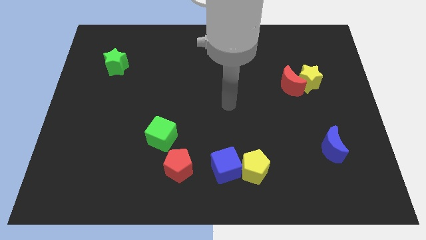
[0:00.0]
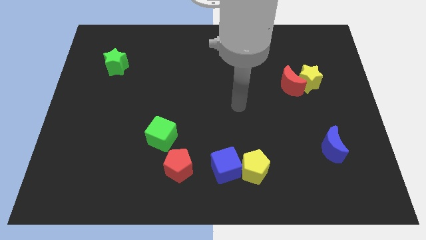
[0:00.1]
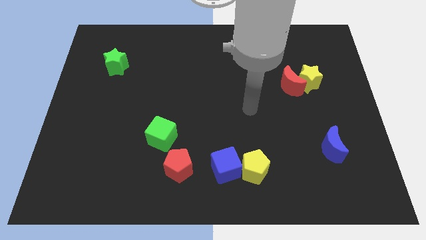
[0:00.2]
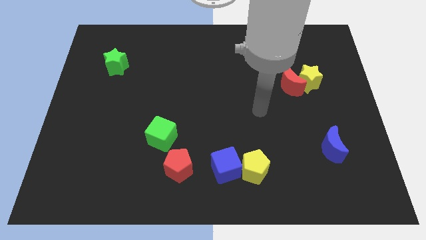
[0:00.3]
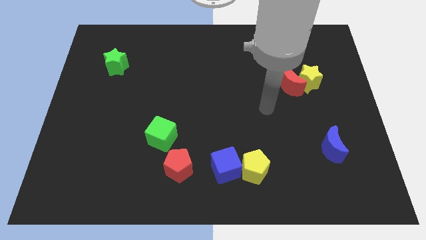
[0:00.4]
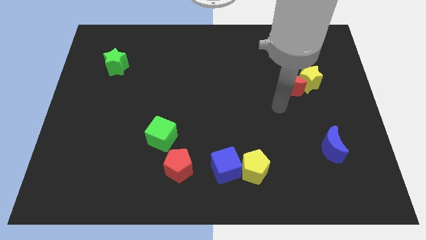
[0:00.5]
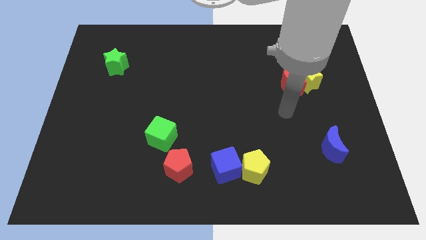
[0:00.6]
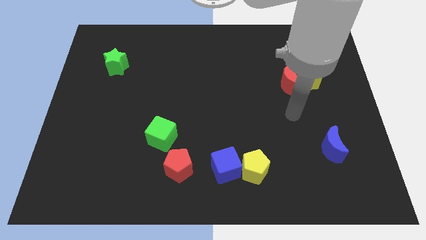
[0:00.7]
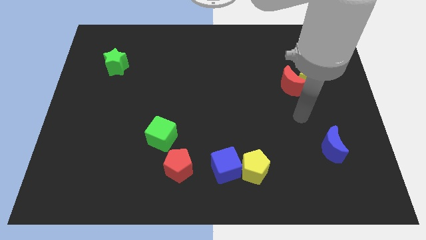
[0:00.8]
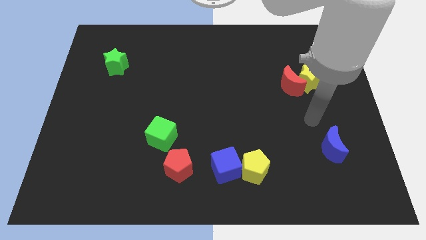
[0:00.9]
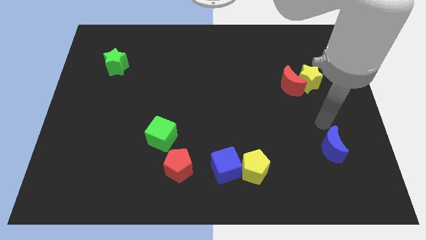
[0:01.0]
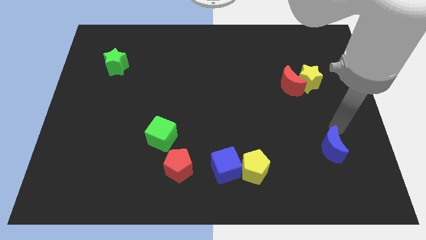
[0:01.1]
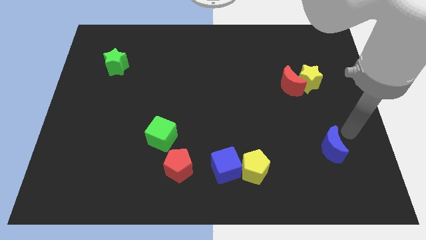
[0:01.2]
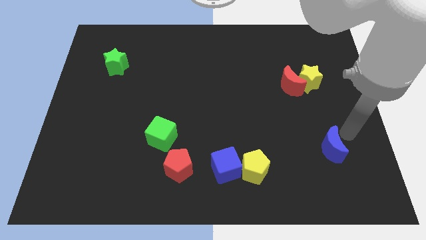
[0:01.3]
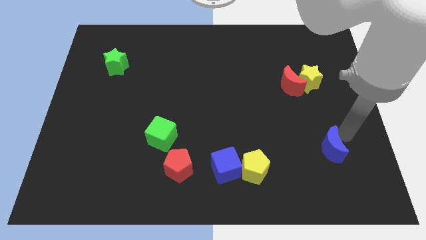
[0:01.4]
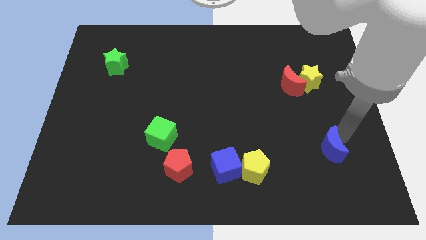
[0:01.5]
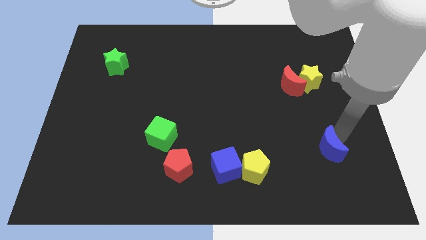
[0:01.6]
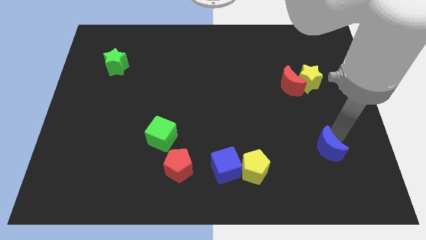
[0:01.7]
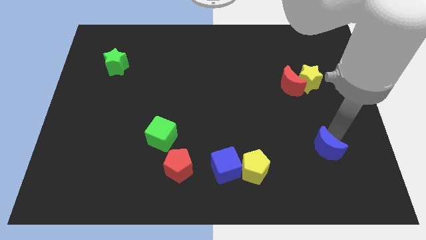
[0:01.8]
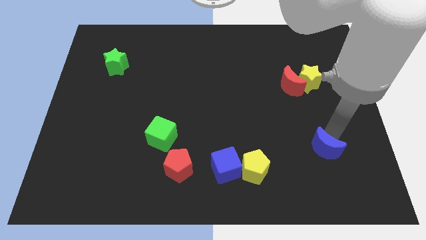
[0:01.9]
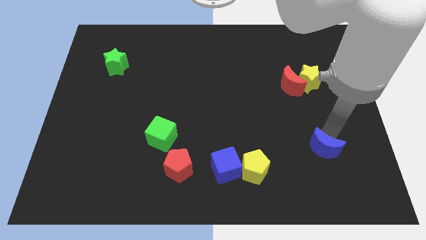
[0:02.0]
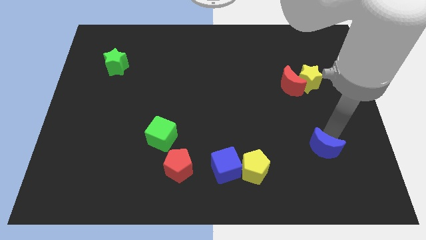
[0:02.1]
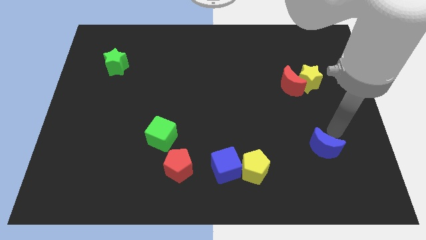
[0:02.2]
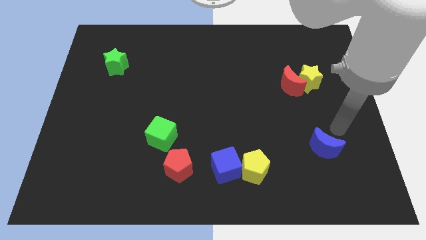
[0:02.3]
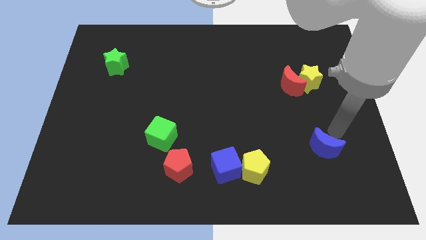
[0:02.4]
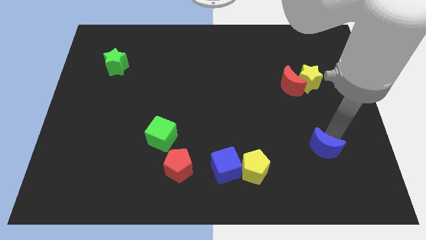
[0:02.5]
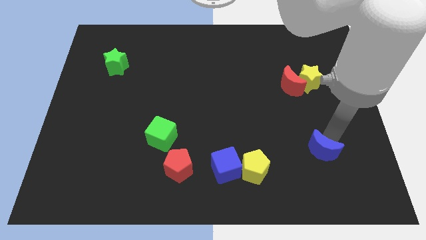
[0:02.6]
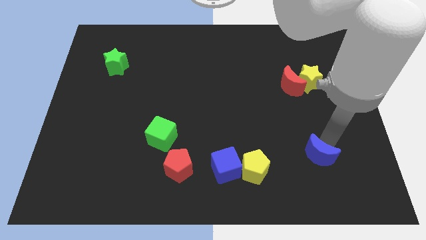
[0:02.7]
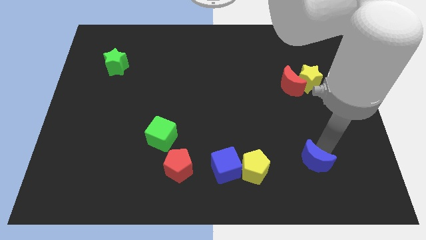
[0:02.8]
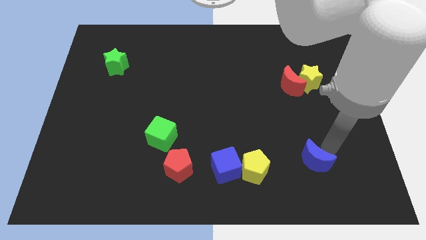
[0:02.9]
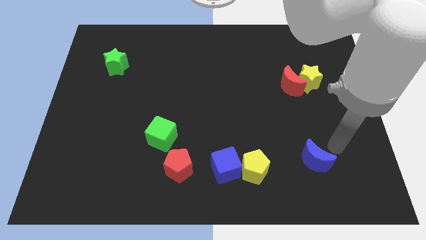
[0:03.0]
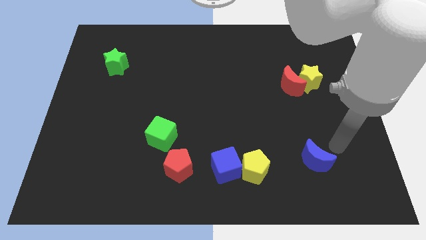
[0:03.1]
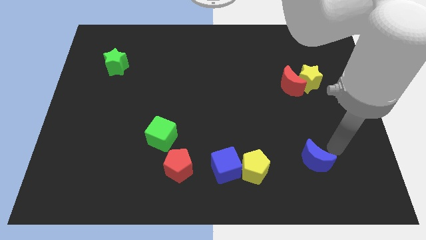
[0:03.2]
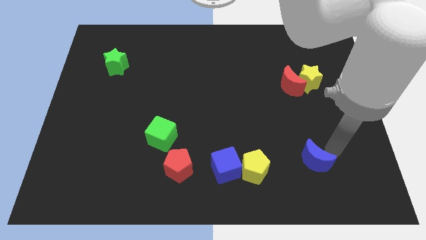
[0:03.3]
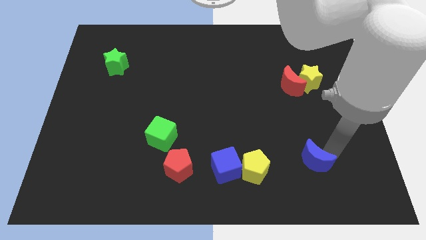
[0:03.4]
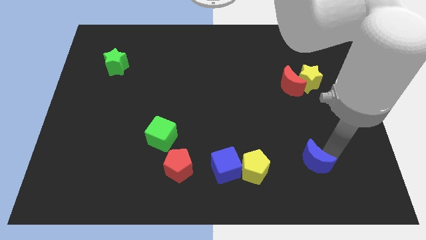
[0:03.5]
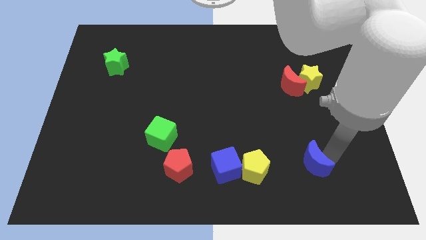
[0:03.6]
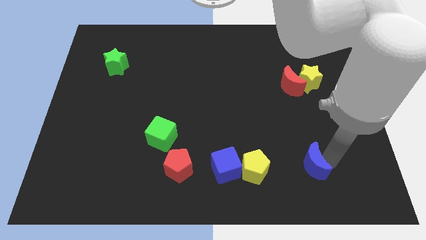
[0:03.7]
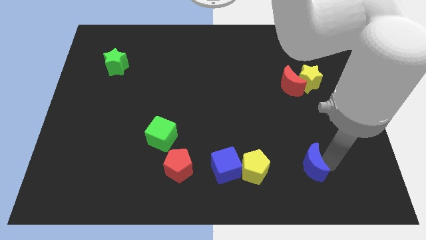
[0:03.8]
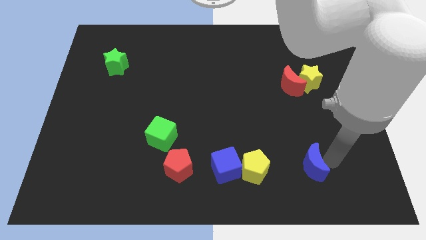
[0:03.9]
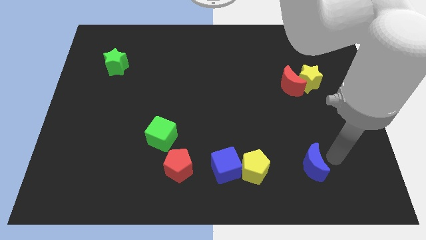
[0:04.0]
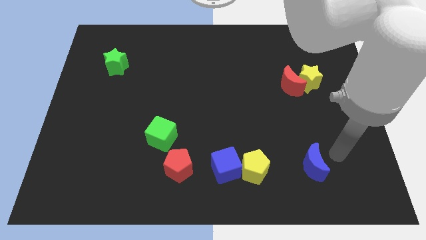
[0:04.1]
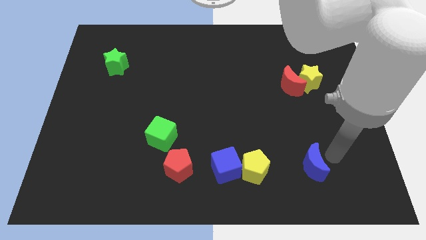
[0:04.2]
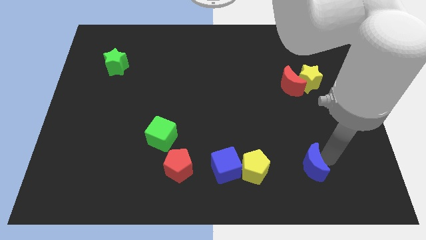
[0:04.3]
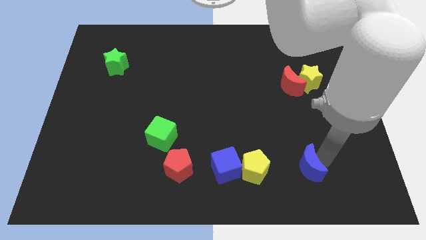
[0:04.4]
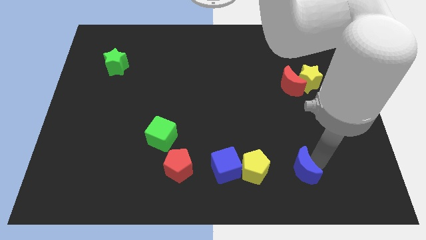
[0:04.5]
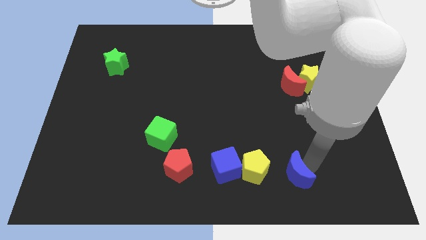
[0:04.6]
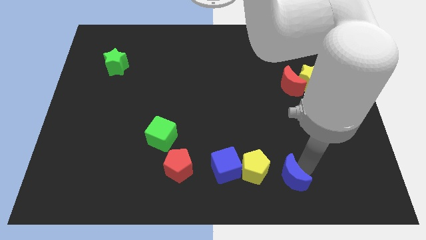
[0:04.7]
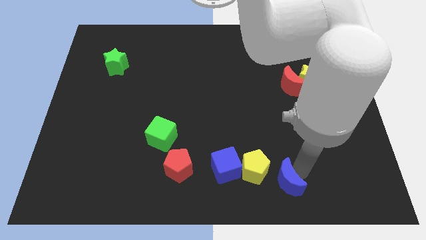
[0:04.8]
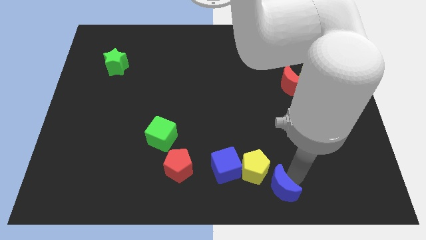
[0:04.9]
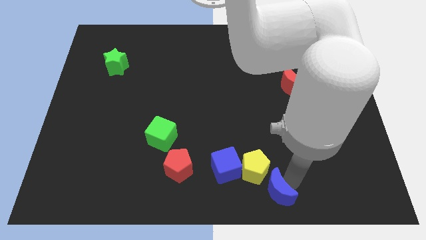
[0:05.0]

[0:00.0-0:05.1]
put the blue moon to the bottom

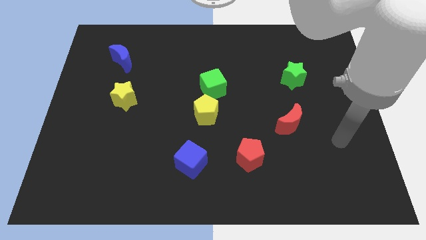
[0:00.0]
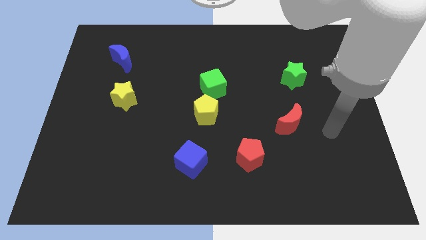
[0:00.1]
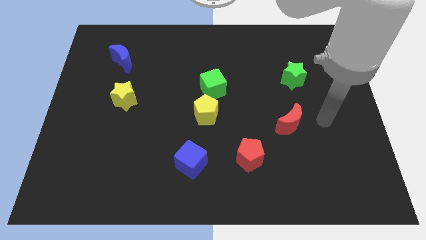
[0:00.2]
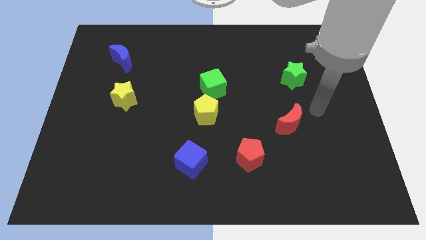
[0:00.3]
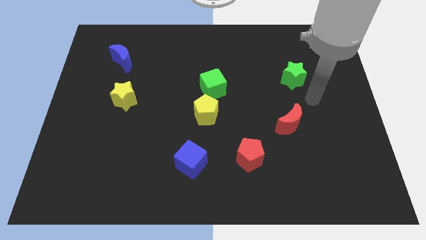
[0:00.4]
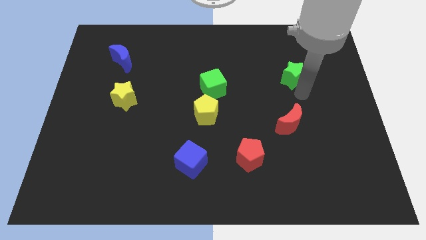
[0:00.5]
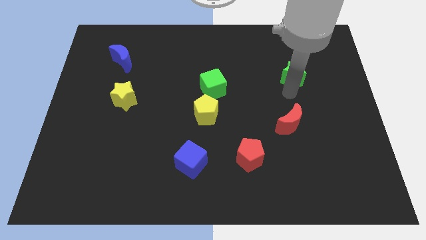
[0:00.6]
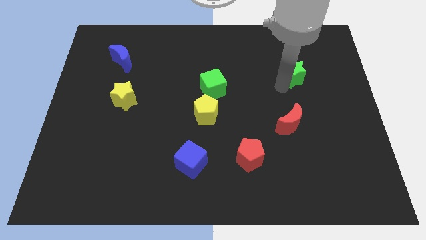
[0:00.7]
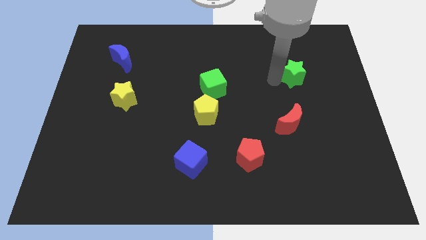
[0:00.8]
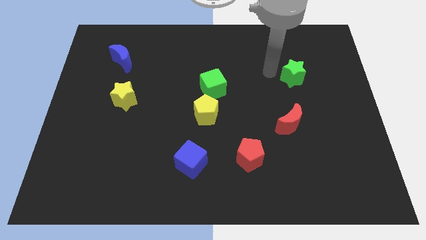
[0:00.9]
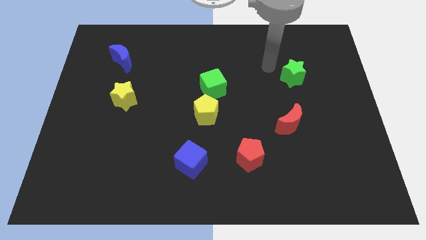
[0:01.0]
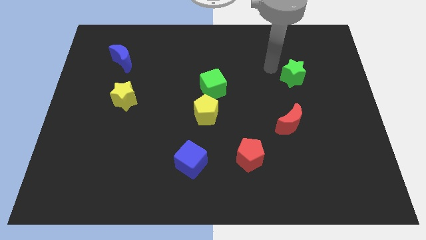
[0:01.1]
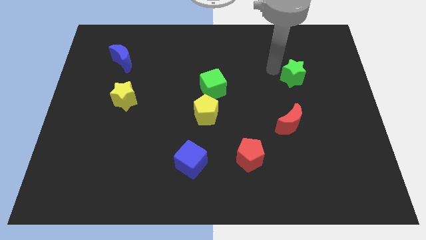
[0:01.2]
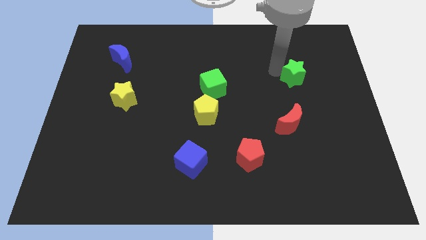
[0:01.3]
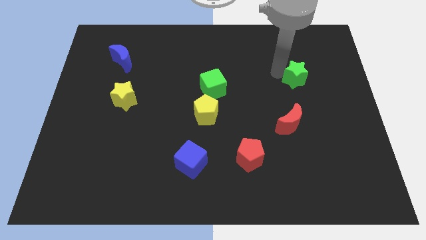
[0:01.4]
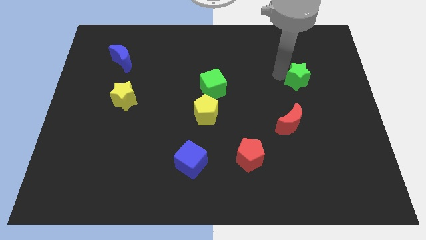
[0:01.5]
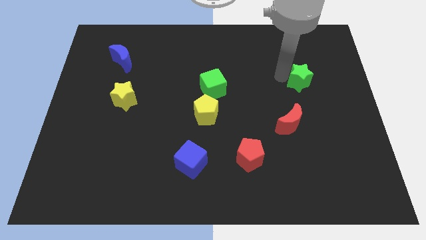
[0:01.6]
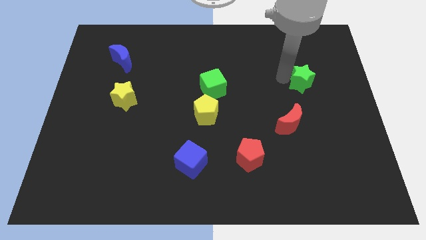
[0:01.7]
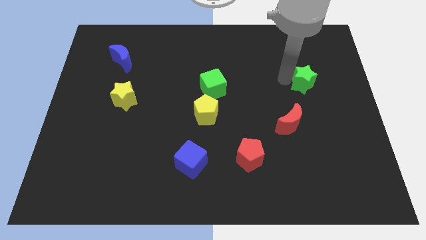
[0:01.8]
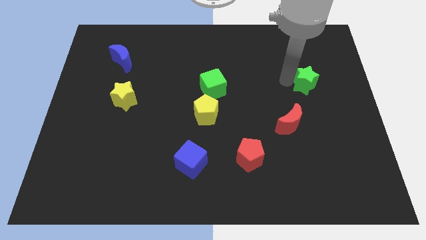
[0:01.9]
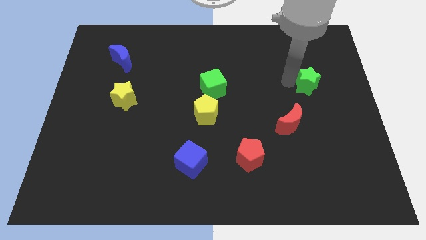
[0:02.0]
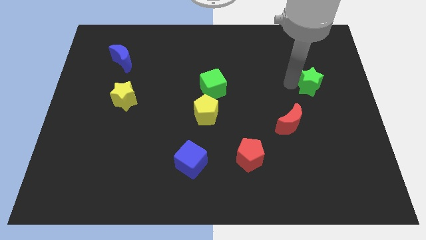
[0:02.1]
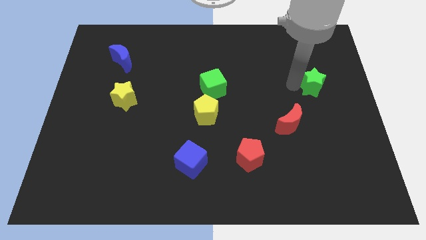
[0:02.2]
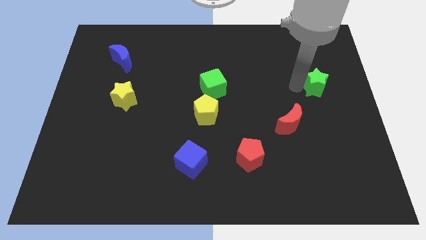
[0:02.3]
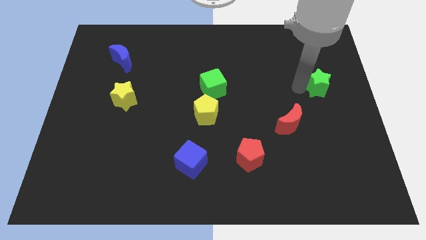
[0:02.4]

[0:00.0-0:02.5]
push the green star to the center right

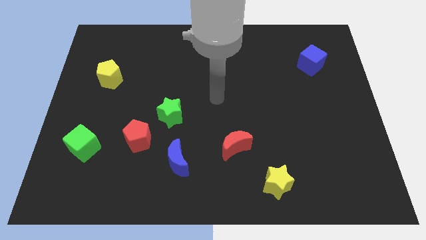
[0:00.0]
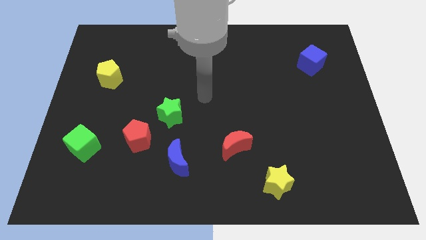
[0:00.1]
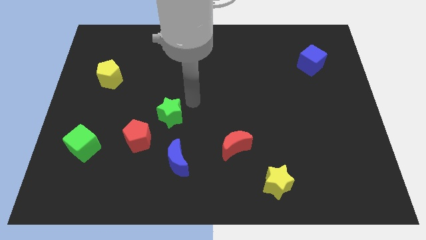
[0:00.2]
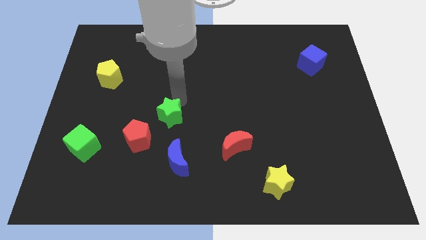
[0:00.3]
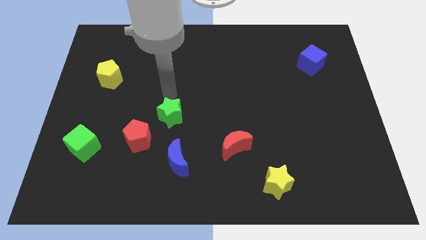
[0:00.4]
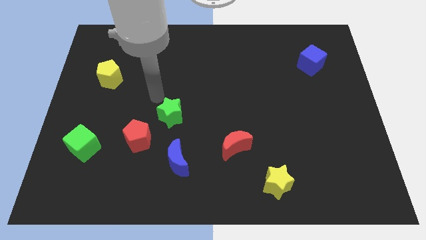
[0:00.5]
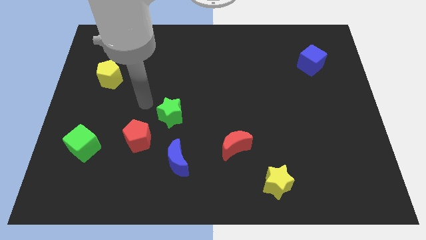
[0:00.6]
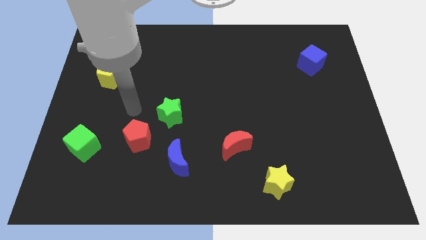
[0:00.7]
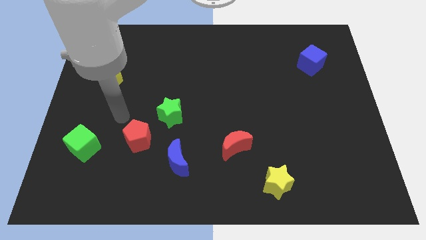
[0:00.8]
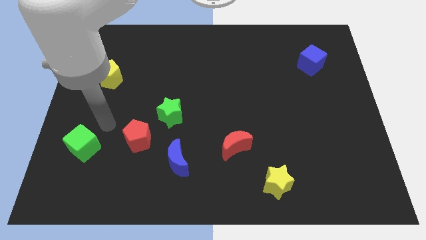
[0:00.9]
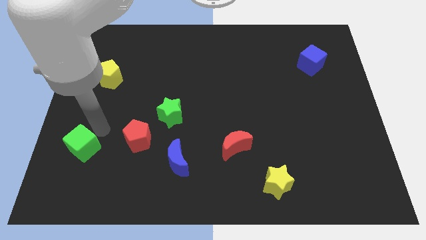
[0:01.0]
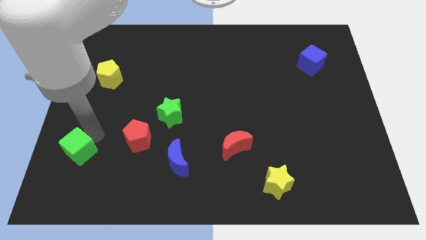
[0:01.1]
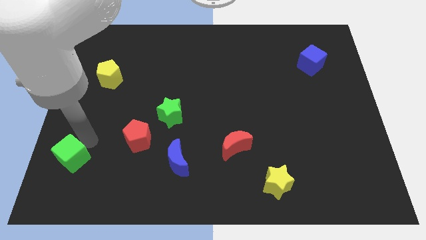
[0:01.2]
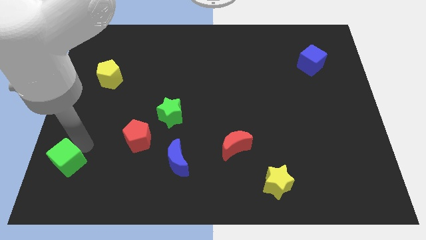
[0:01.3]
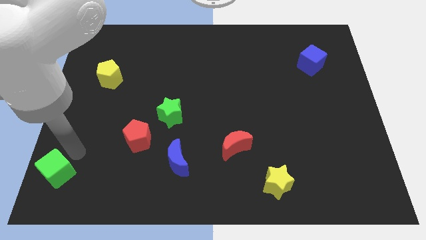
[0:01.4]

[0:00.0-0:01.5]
push the green cube to the bottom left corner
